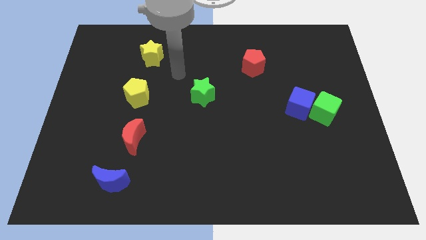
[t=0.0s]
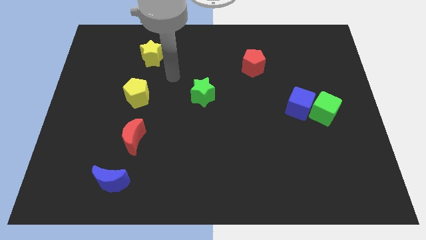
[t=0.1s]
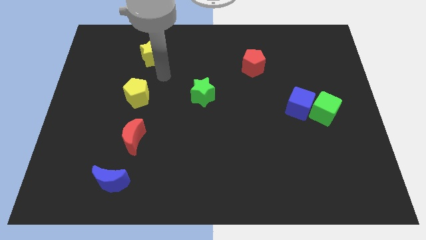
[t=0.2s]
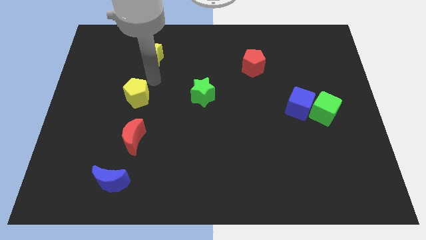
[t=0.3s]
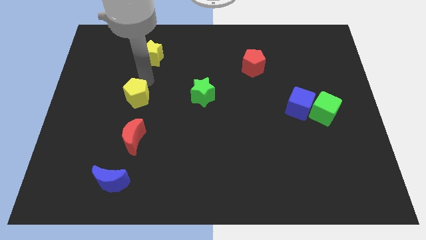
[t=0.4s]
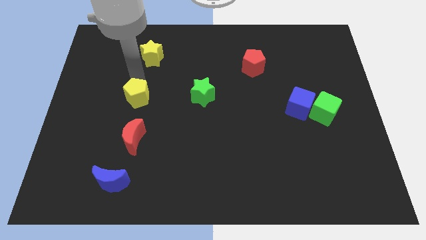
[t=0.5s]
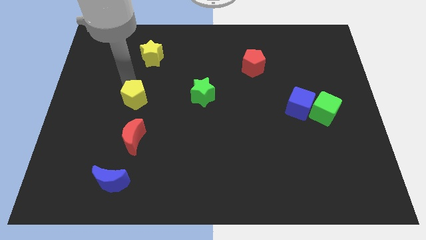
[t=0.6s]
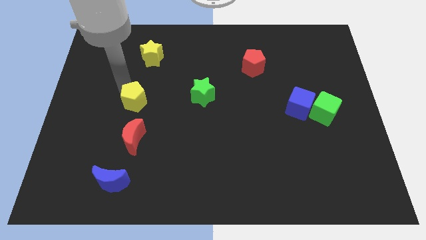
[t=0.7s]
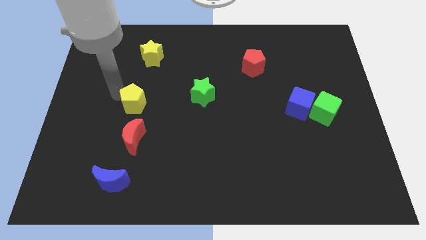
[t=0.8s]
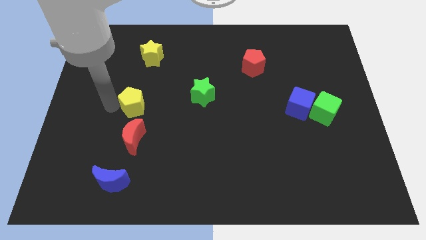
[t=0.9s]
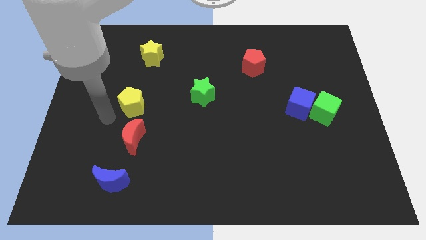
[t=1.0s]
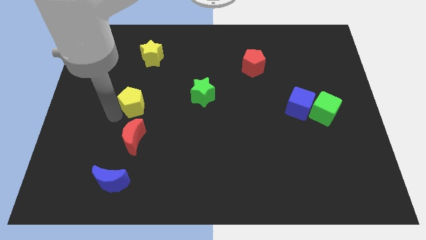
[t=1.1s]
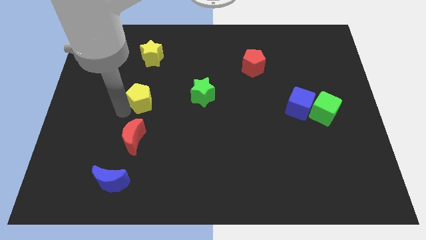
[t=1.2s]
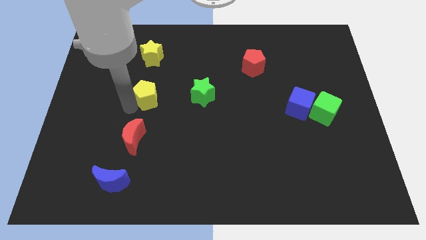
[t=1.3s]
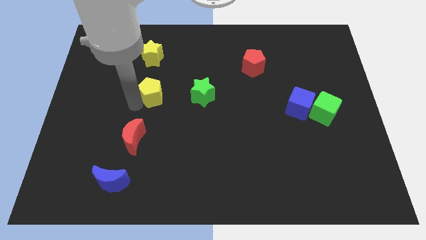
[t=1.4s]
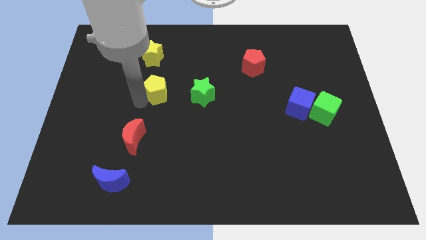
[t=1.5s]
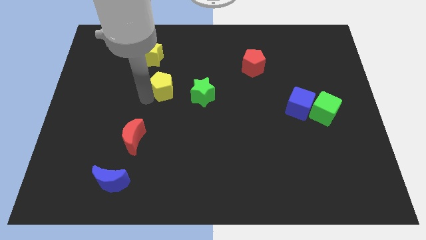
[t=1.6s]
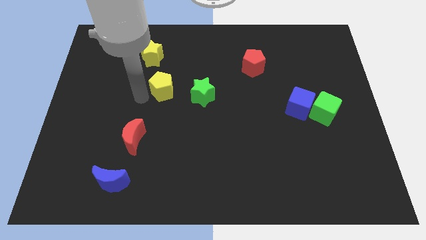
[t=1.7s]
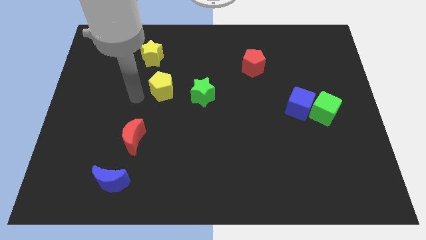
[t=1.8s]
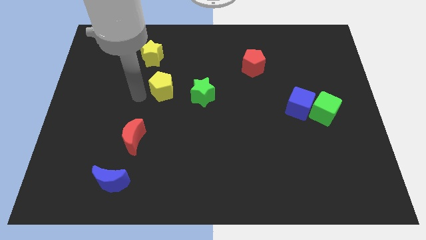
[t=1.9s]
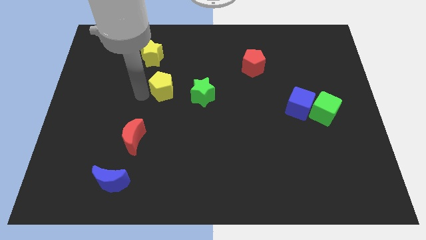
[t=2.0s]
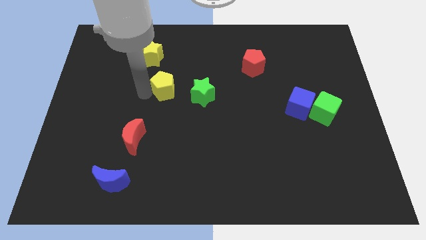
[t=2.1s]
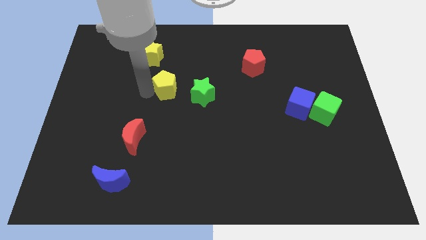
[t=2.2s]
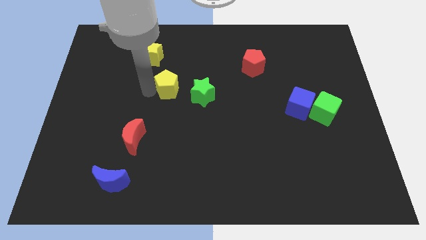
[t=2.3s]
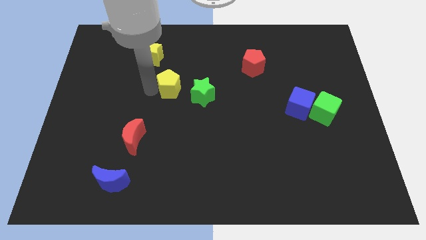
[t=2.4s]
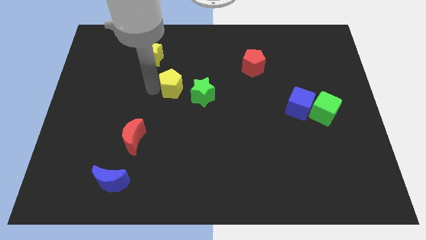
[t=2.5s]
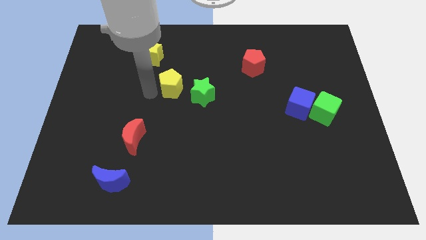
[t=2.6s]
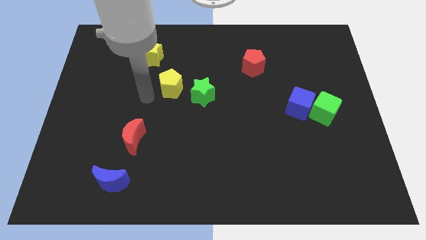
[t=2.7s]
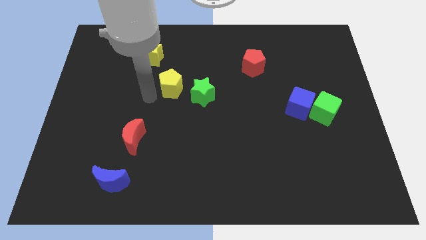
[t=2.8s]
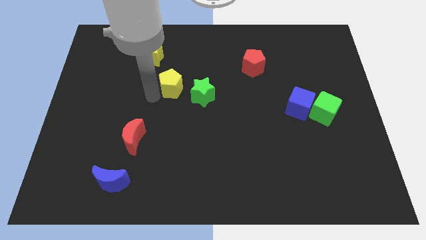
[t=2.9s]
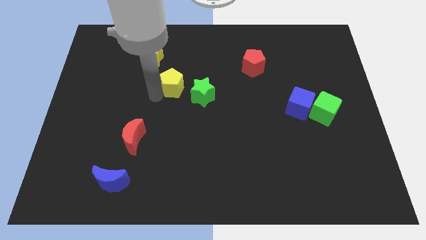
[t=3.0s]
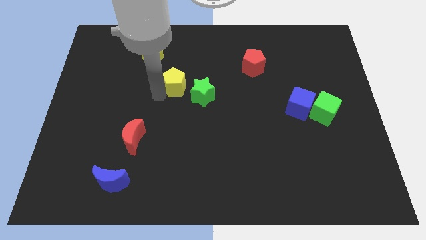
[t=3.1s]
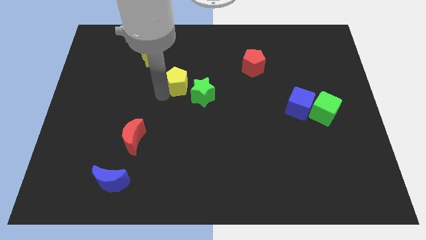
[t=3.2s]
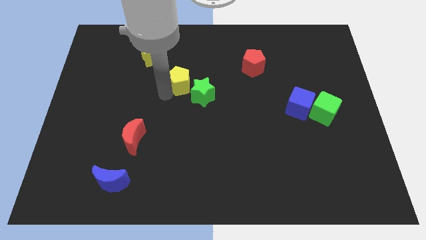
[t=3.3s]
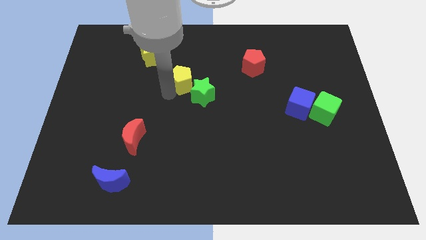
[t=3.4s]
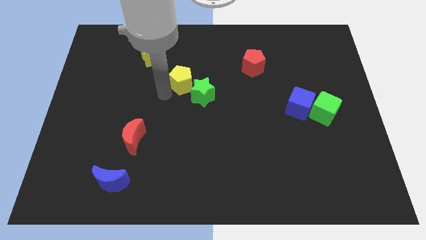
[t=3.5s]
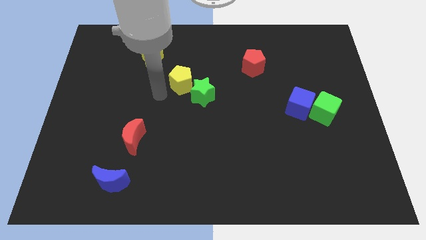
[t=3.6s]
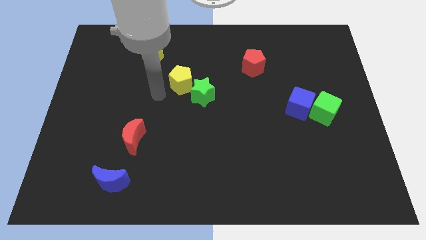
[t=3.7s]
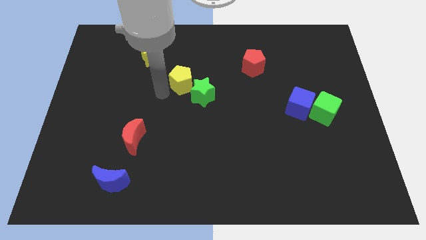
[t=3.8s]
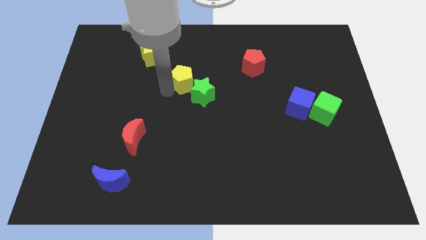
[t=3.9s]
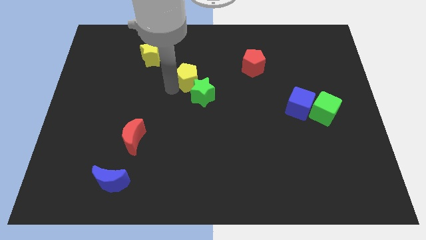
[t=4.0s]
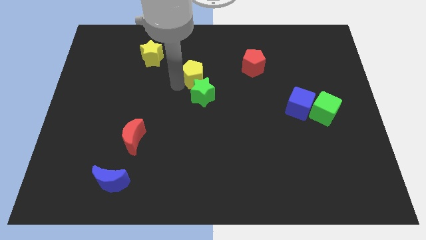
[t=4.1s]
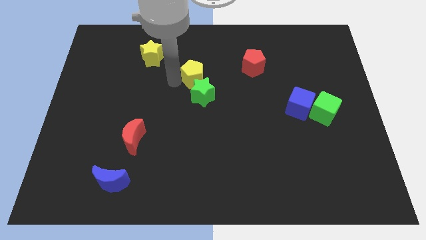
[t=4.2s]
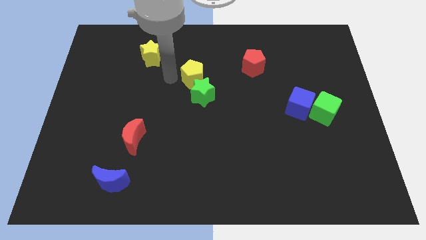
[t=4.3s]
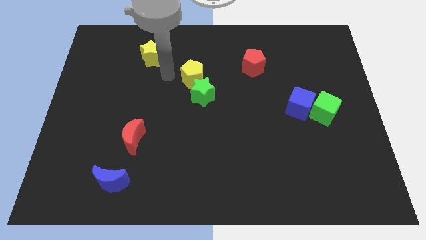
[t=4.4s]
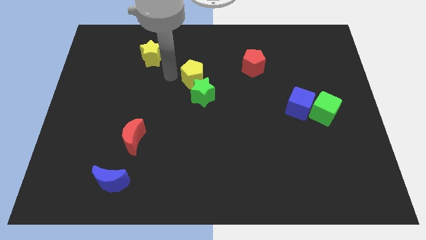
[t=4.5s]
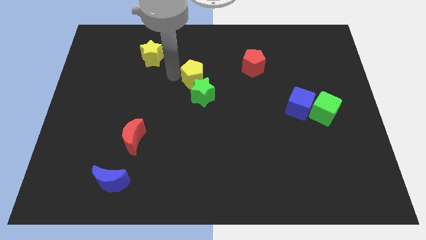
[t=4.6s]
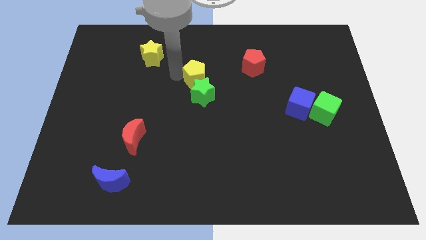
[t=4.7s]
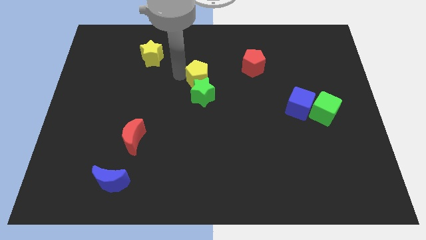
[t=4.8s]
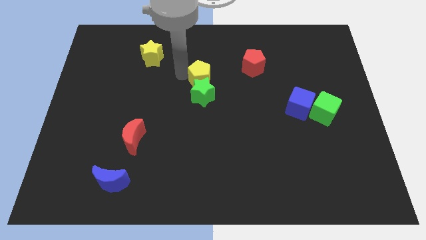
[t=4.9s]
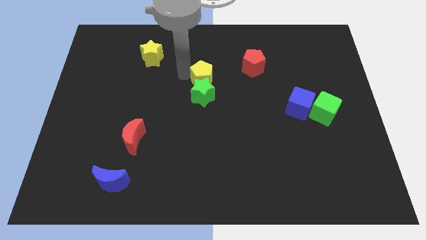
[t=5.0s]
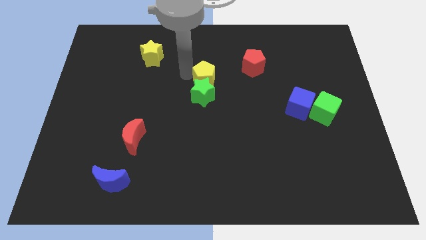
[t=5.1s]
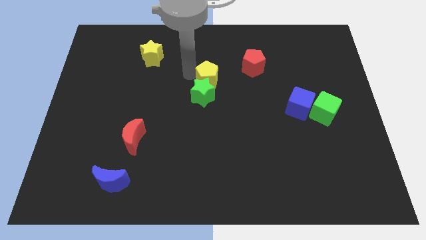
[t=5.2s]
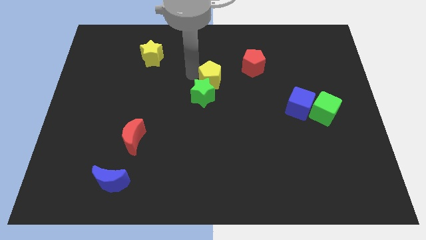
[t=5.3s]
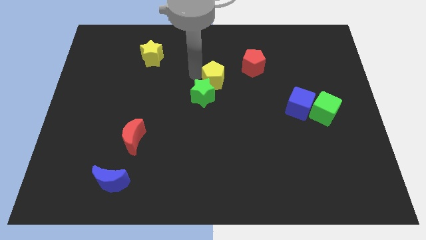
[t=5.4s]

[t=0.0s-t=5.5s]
push the yellow pentagon diagonally down and to the left of the red pentagon

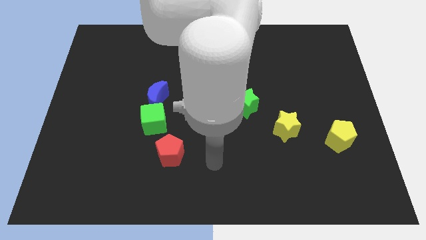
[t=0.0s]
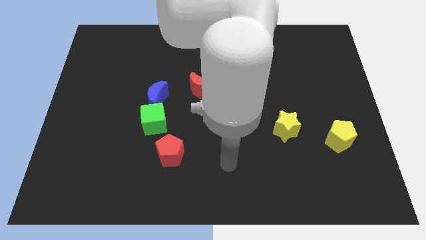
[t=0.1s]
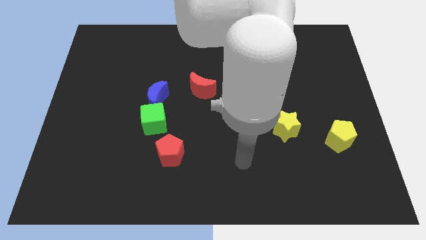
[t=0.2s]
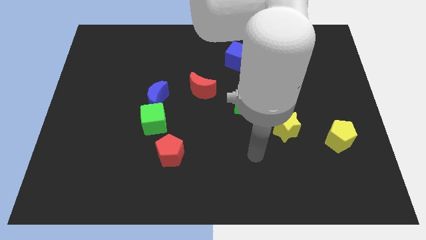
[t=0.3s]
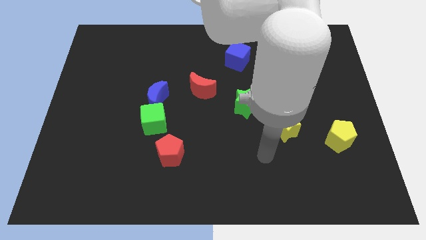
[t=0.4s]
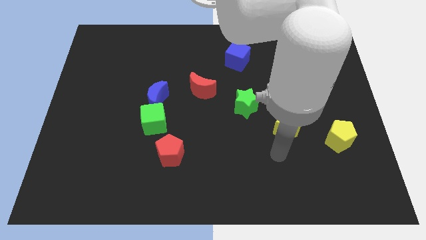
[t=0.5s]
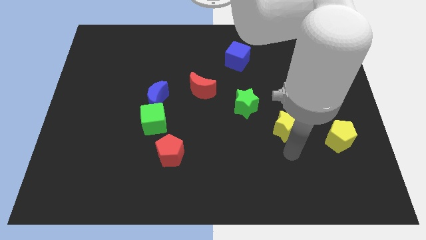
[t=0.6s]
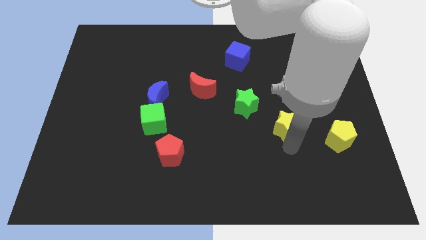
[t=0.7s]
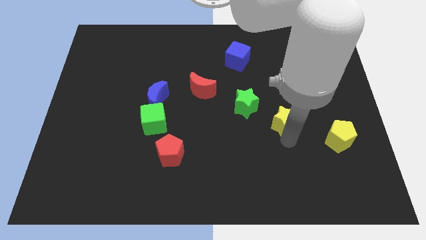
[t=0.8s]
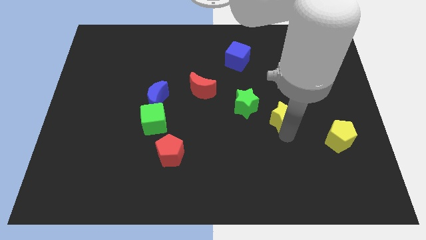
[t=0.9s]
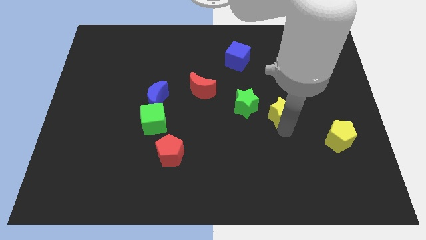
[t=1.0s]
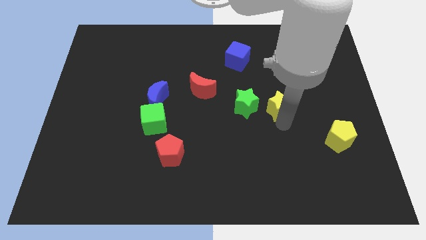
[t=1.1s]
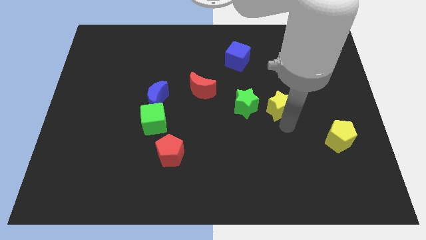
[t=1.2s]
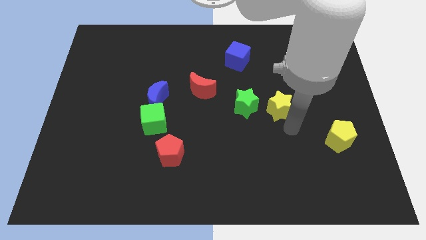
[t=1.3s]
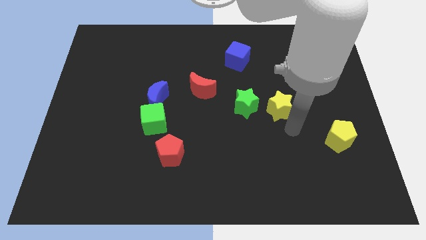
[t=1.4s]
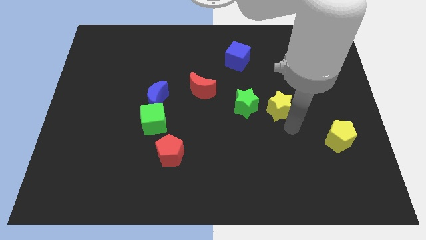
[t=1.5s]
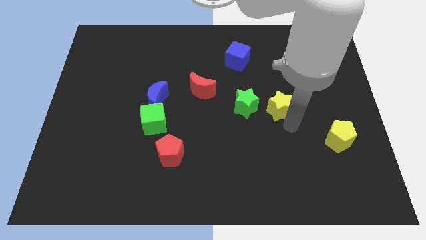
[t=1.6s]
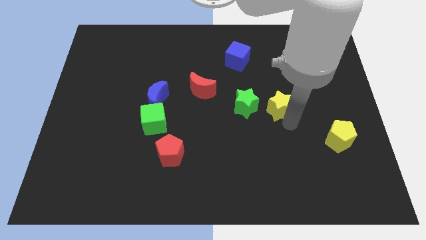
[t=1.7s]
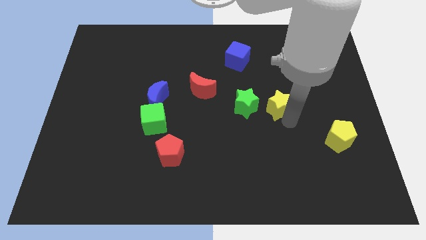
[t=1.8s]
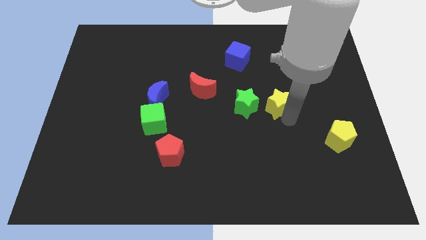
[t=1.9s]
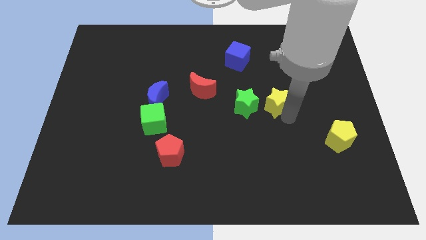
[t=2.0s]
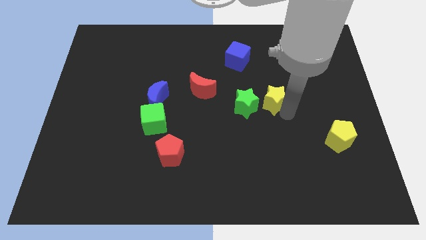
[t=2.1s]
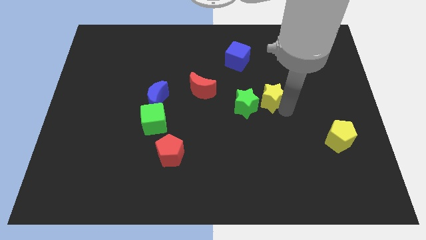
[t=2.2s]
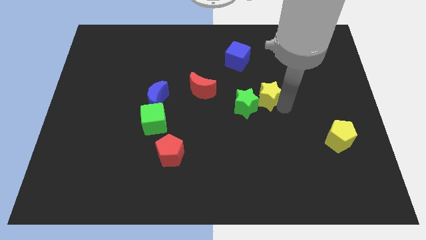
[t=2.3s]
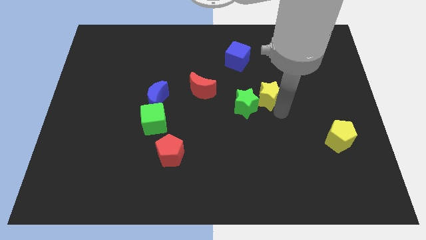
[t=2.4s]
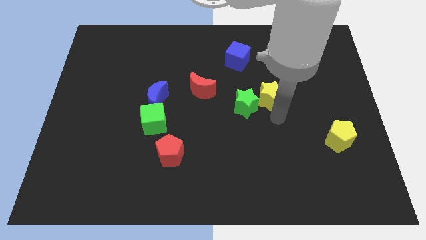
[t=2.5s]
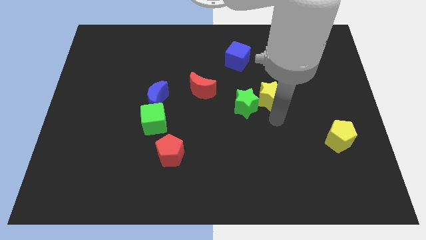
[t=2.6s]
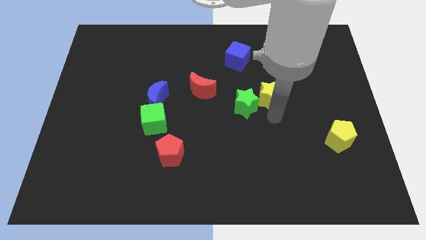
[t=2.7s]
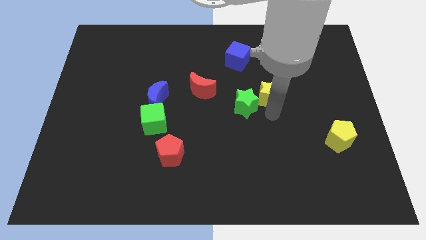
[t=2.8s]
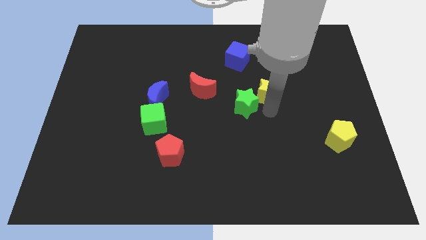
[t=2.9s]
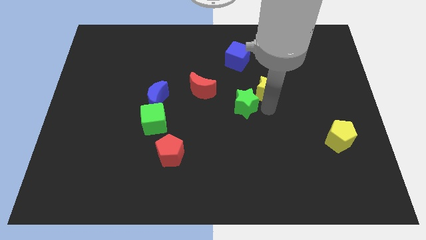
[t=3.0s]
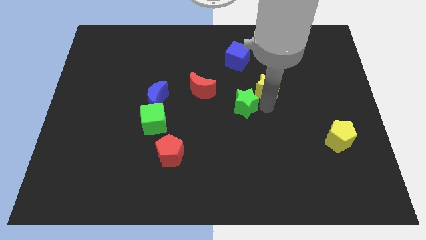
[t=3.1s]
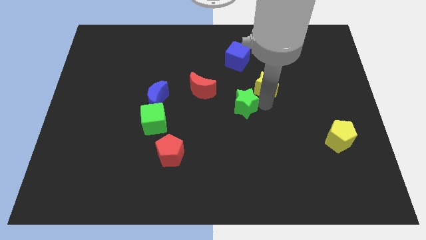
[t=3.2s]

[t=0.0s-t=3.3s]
move the yellow star to the bottom right of the blue cube
